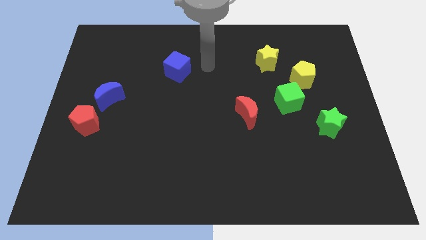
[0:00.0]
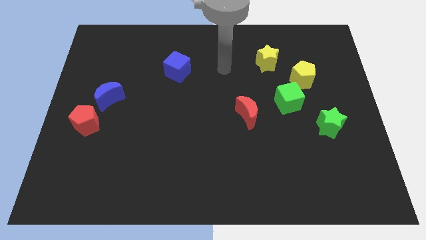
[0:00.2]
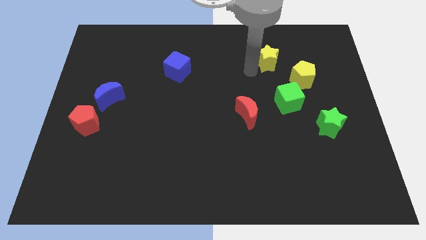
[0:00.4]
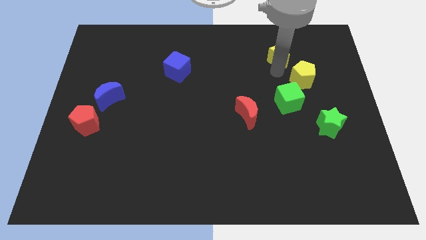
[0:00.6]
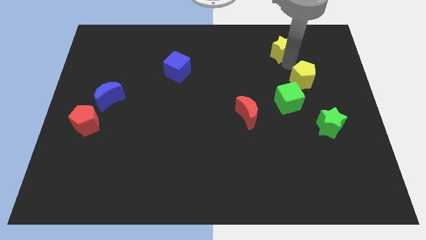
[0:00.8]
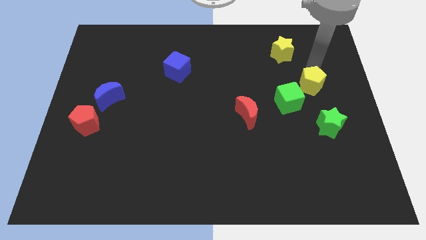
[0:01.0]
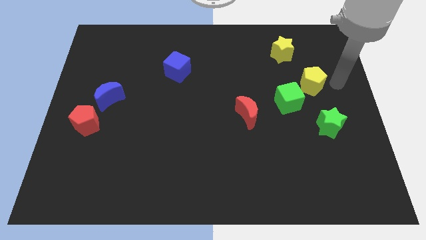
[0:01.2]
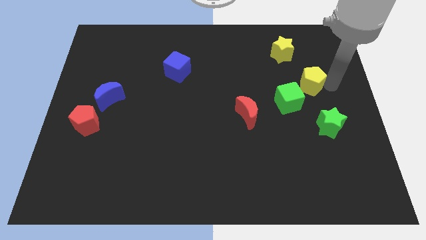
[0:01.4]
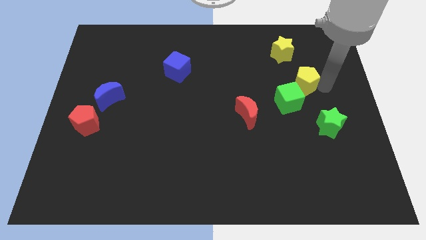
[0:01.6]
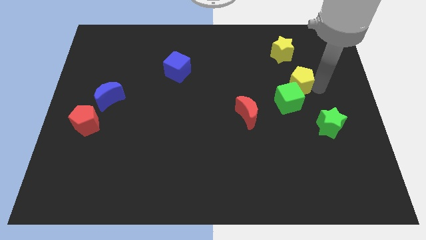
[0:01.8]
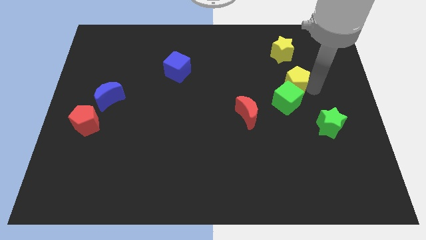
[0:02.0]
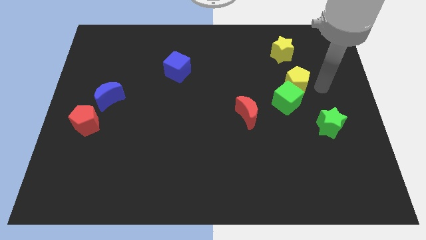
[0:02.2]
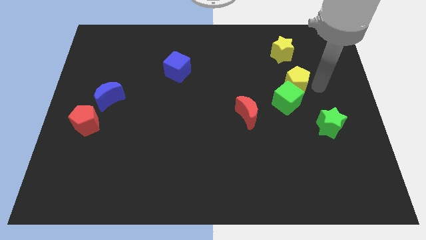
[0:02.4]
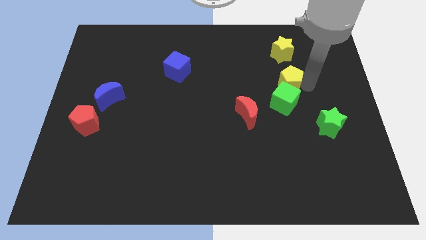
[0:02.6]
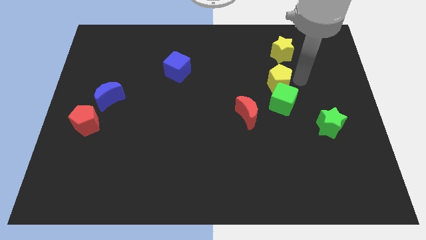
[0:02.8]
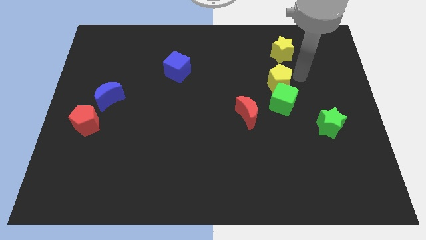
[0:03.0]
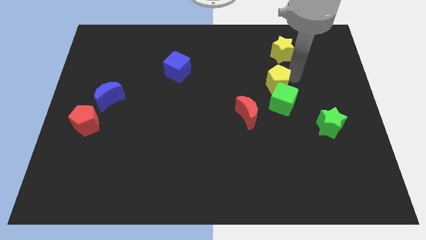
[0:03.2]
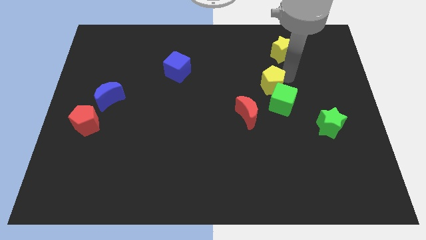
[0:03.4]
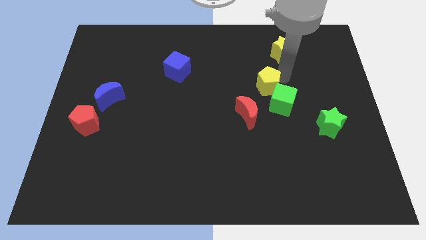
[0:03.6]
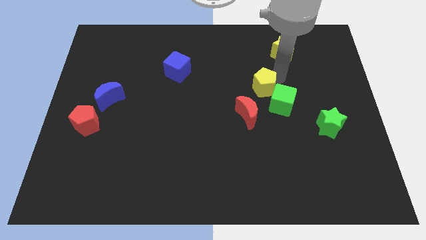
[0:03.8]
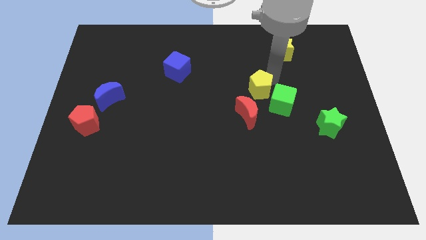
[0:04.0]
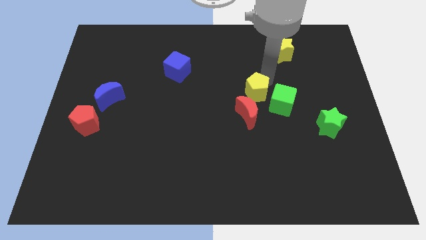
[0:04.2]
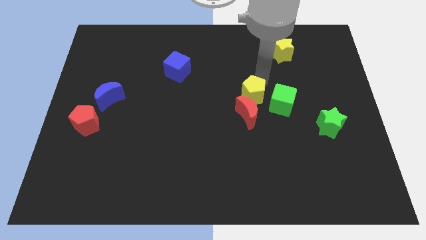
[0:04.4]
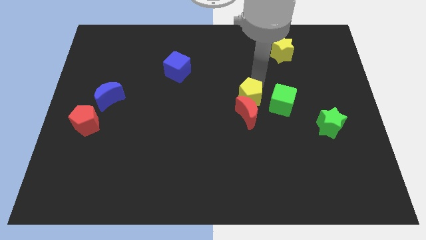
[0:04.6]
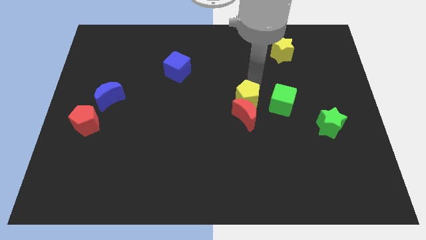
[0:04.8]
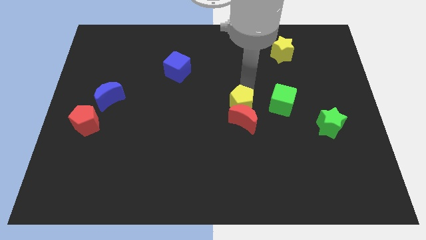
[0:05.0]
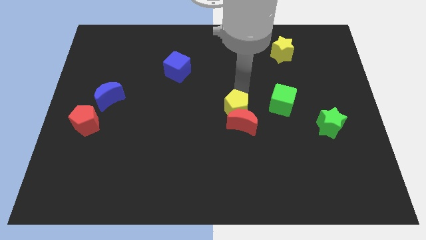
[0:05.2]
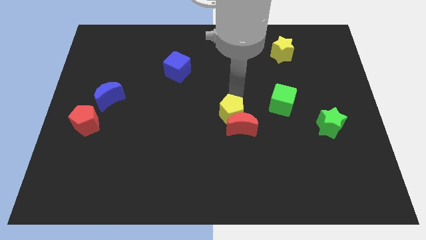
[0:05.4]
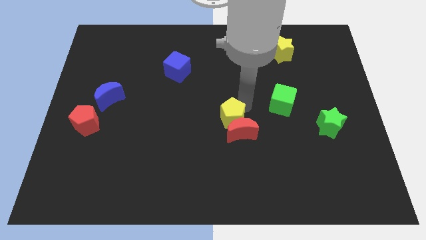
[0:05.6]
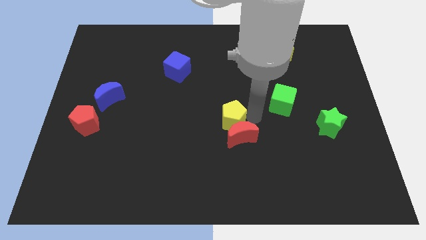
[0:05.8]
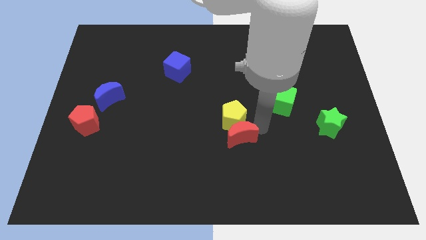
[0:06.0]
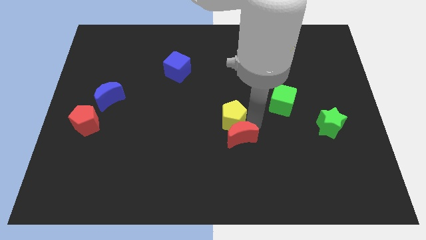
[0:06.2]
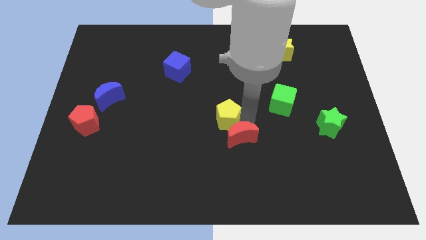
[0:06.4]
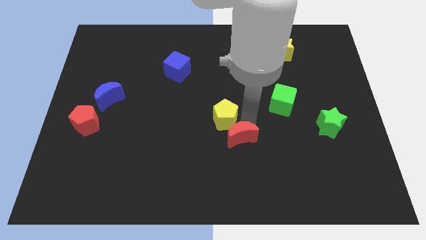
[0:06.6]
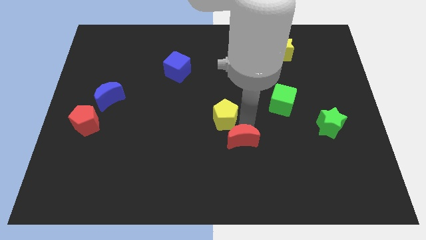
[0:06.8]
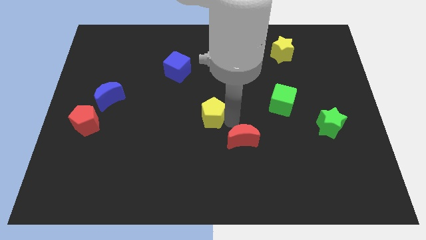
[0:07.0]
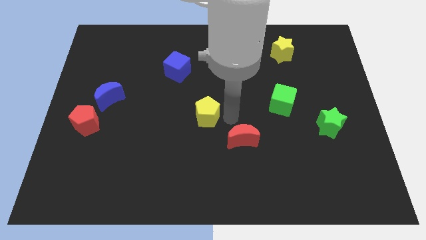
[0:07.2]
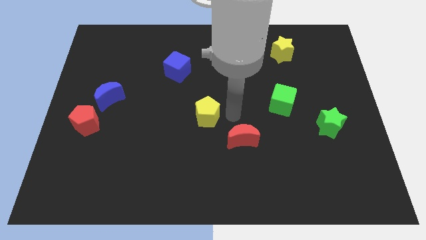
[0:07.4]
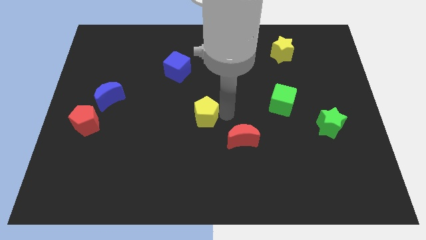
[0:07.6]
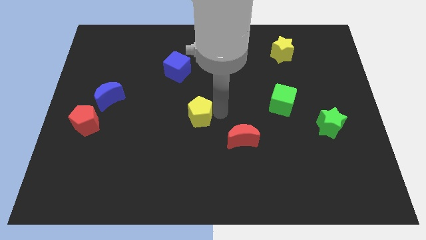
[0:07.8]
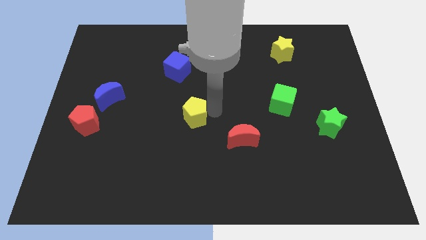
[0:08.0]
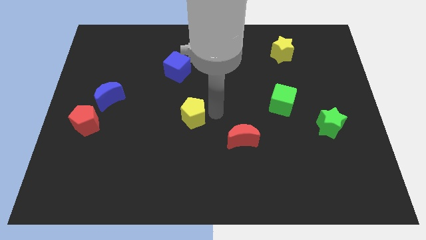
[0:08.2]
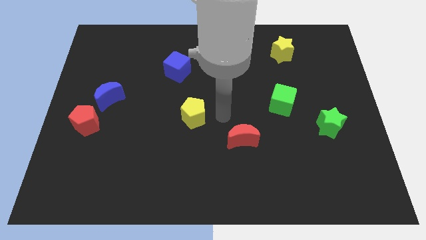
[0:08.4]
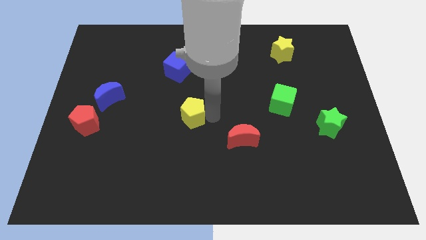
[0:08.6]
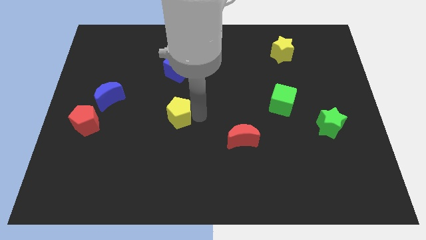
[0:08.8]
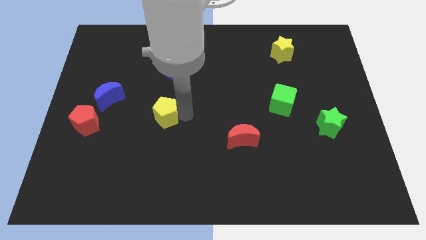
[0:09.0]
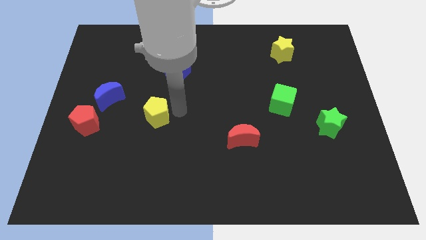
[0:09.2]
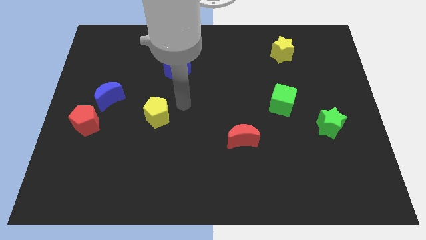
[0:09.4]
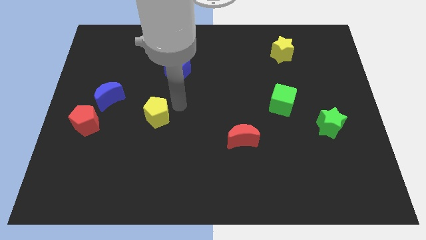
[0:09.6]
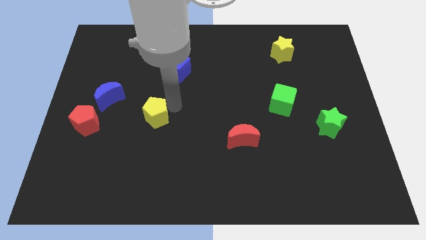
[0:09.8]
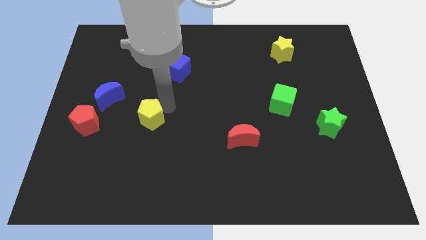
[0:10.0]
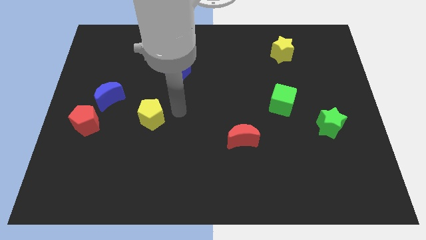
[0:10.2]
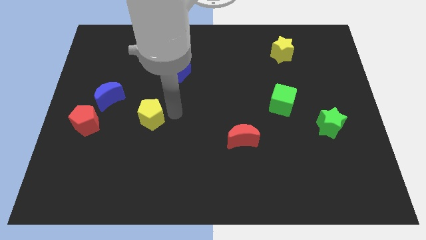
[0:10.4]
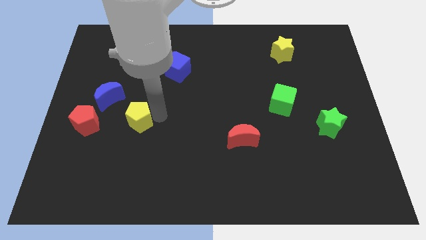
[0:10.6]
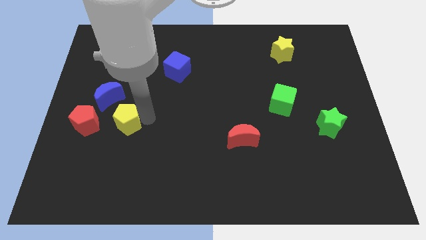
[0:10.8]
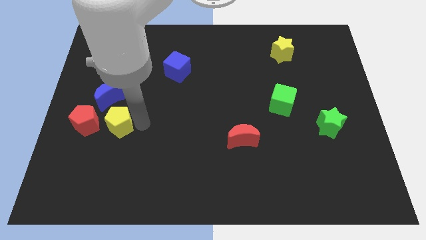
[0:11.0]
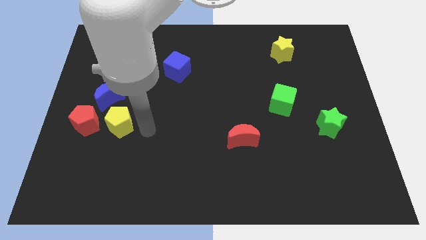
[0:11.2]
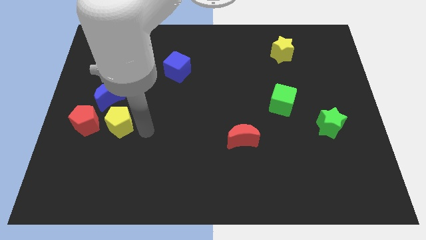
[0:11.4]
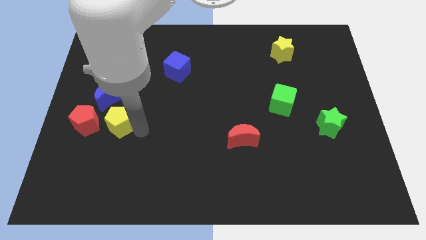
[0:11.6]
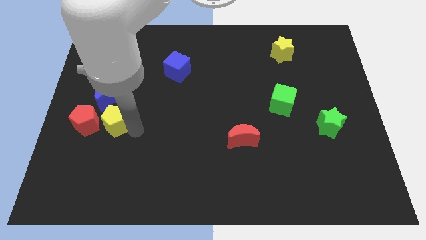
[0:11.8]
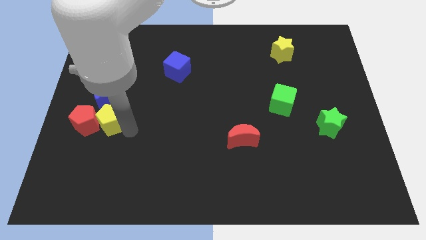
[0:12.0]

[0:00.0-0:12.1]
put the yellow pentagon next to the red pentagon
